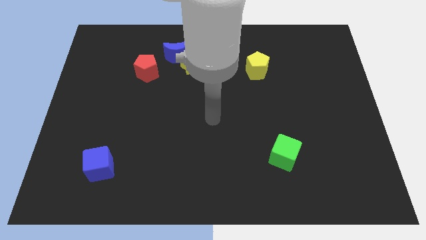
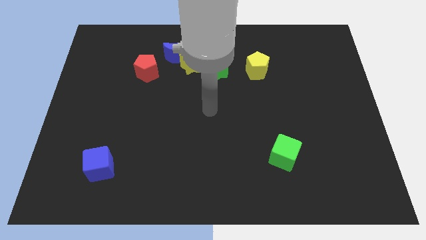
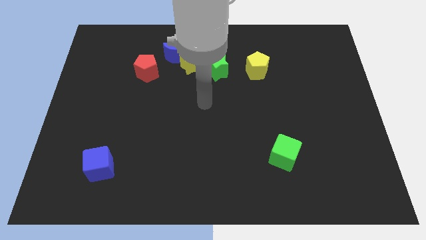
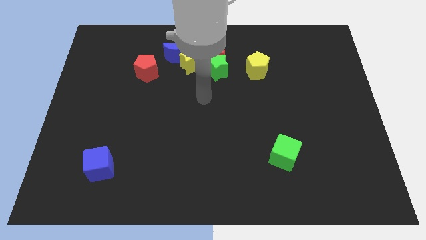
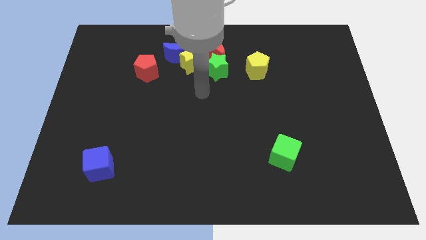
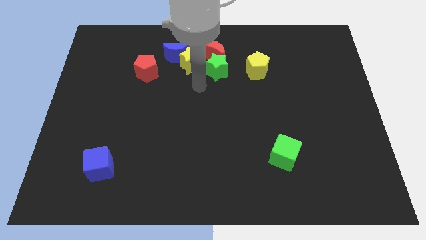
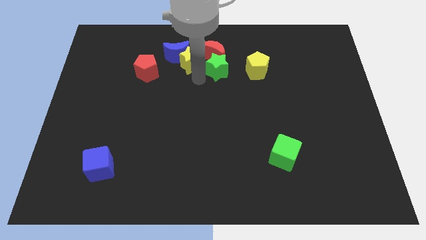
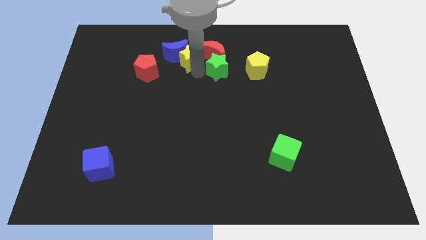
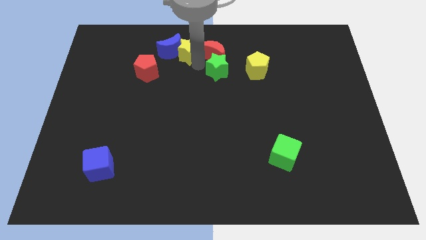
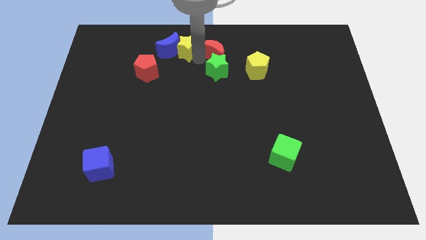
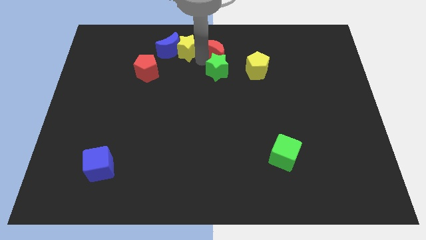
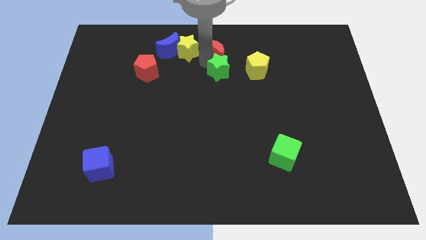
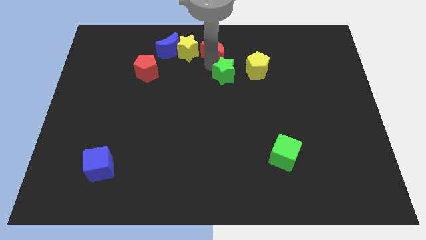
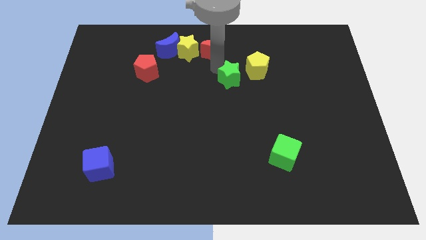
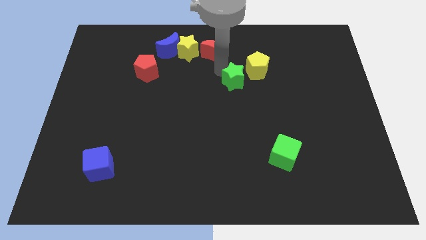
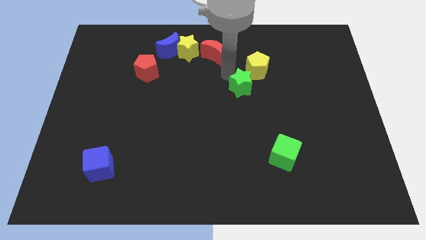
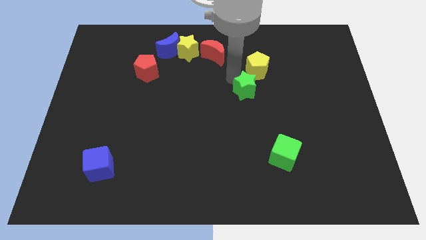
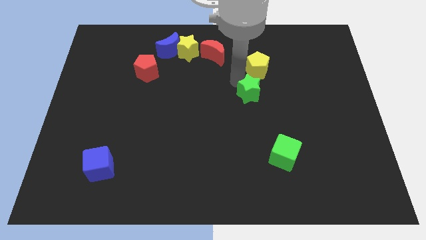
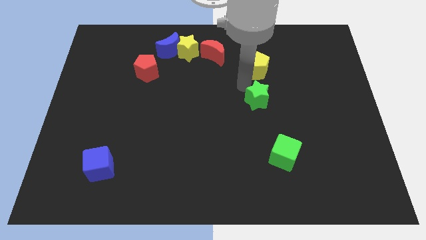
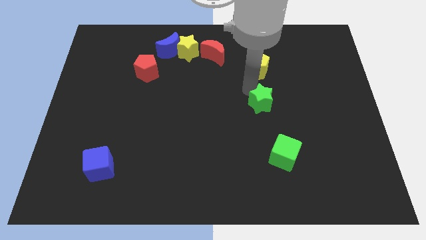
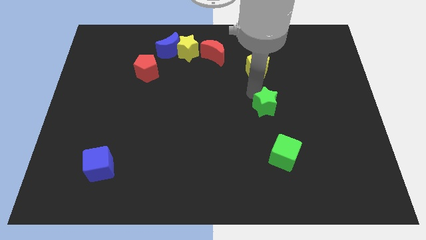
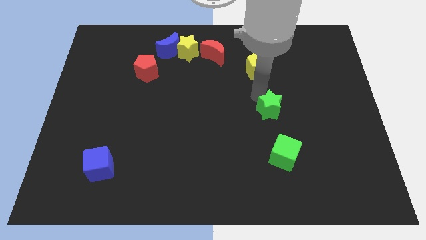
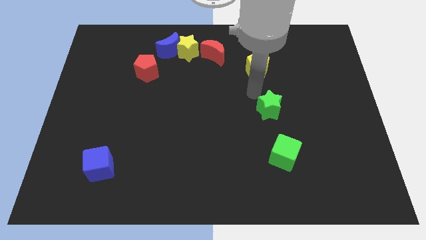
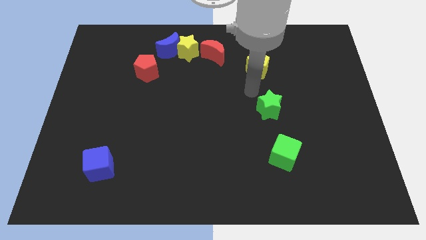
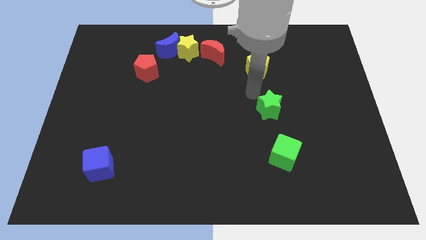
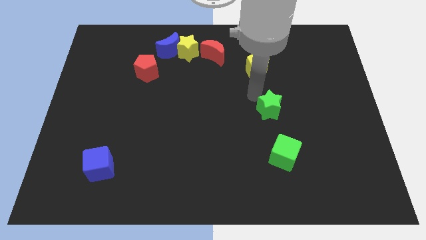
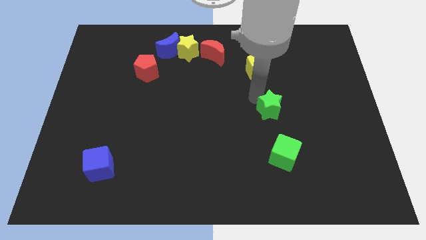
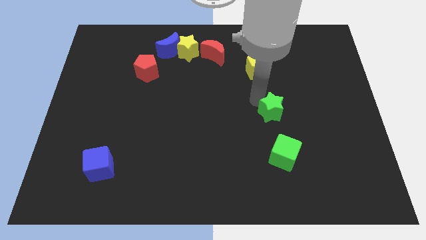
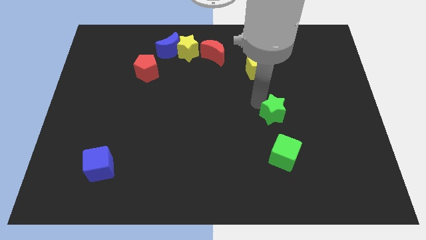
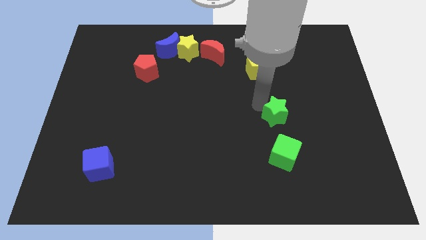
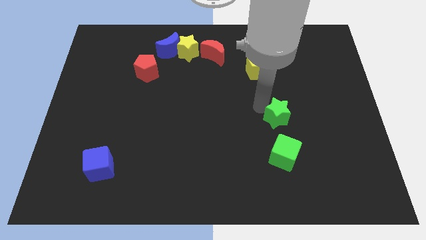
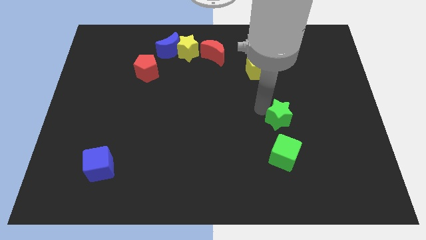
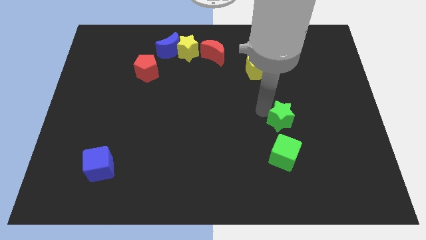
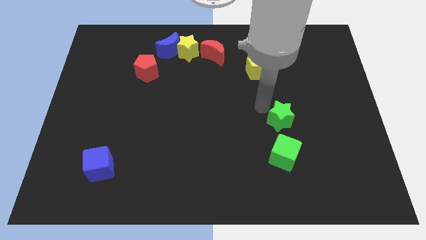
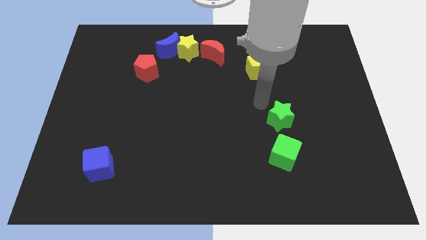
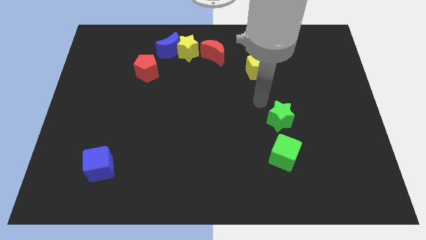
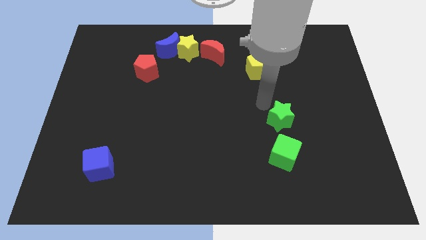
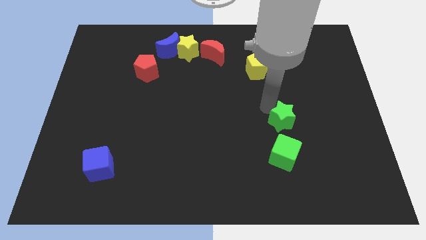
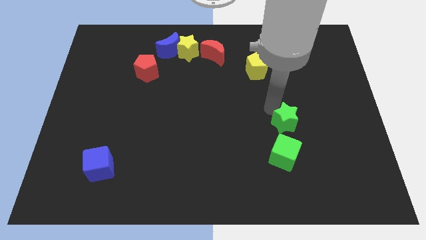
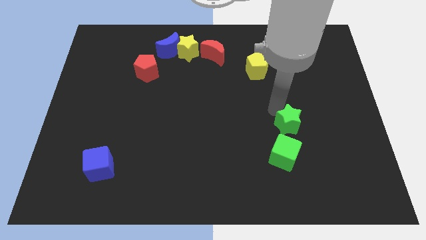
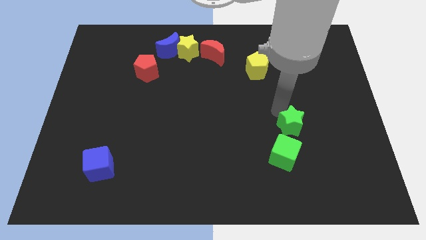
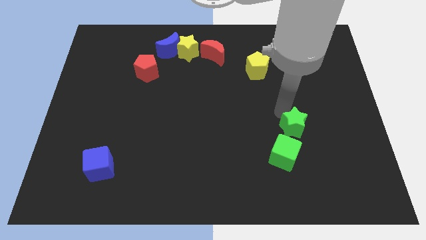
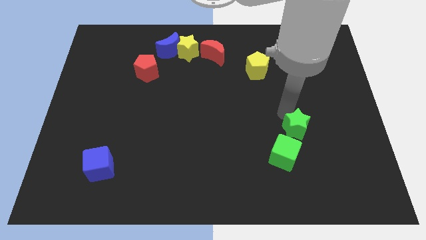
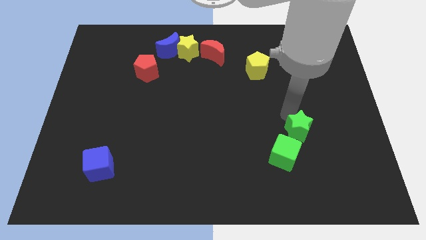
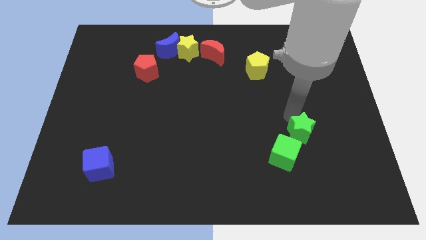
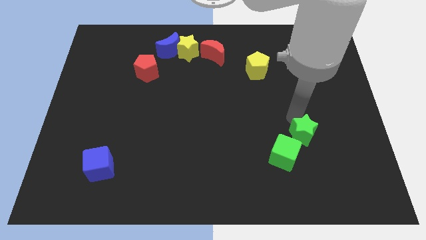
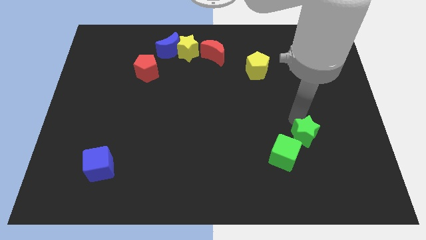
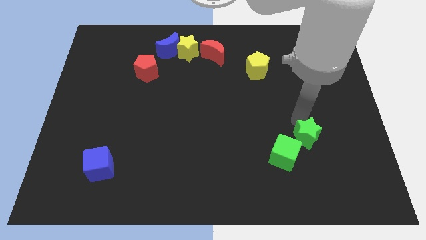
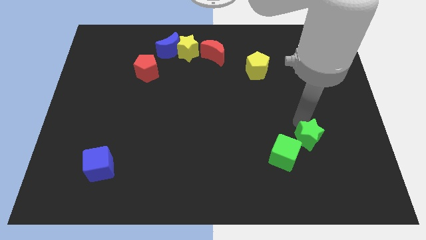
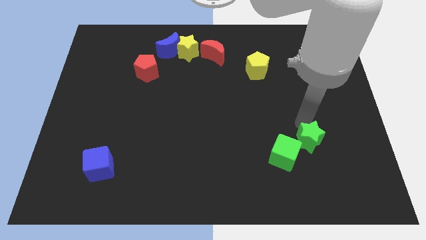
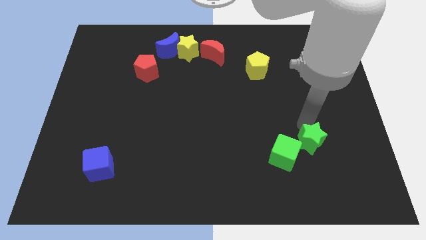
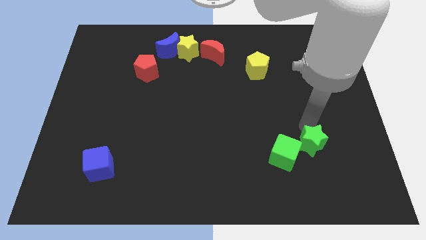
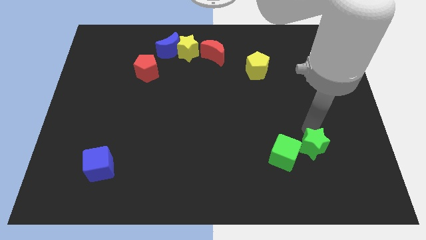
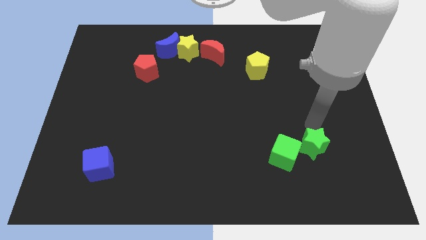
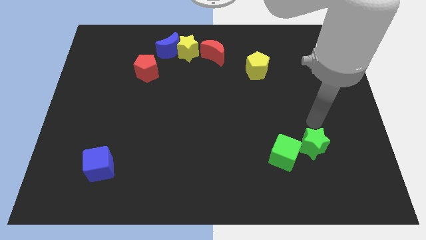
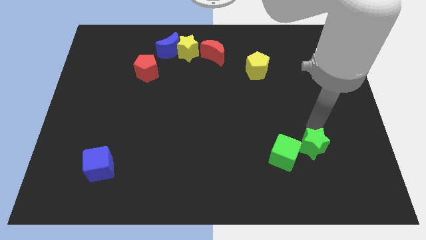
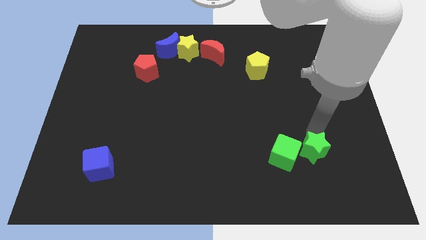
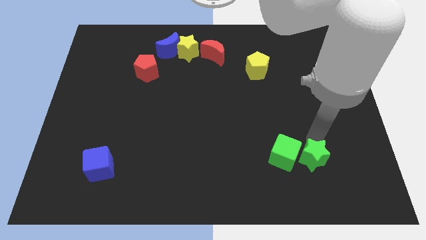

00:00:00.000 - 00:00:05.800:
move the green star diagonally down and to the right of the green cube

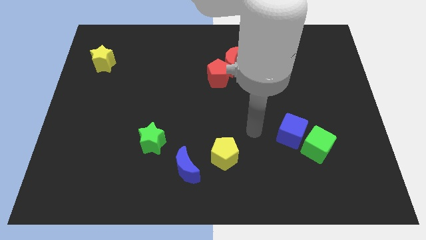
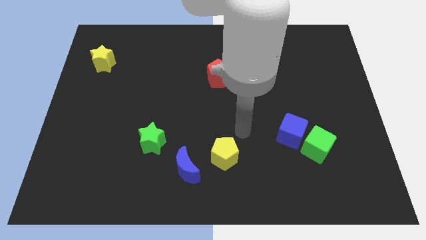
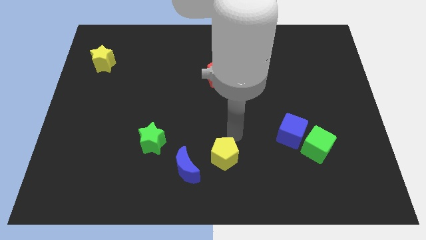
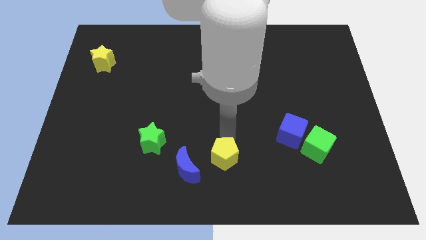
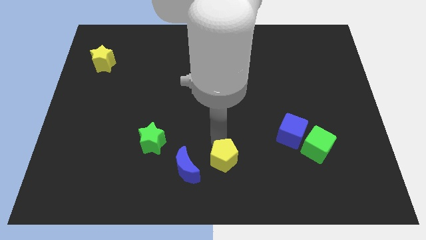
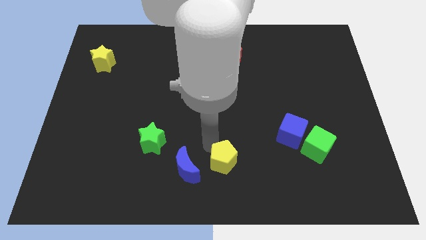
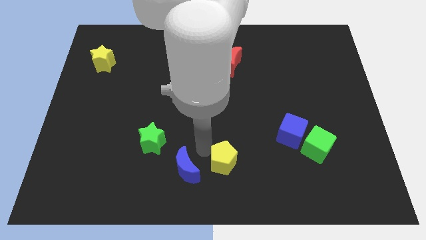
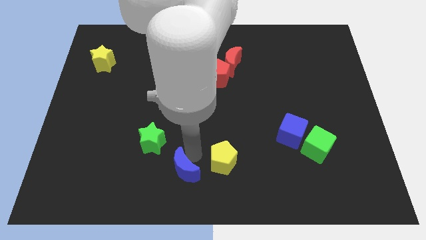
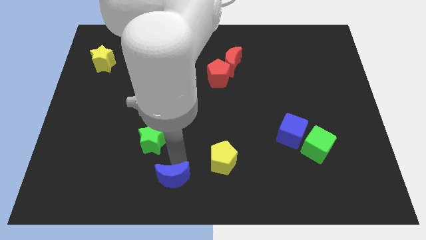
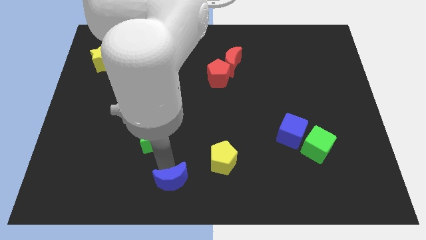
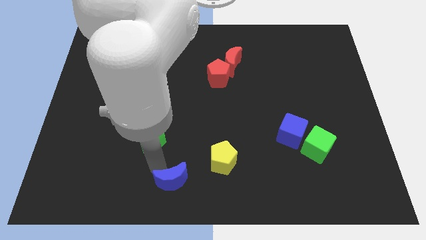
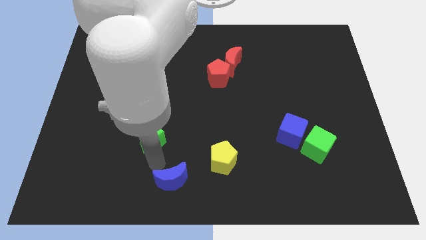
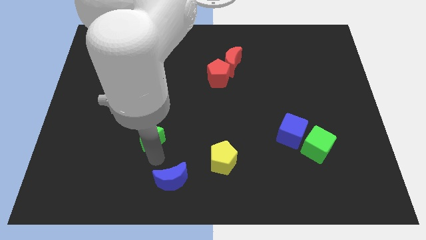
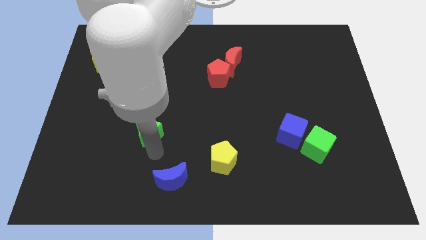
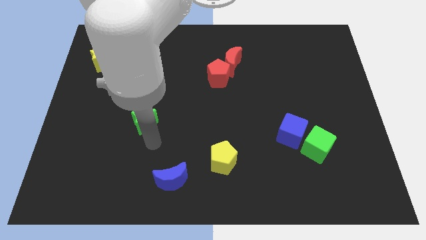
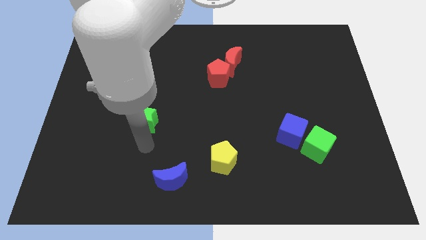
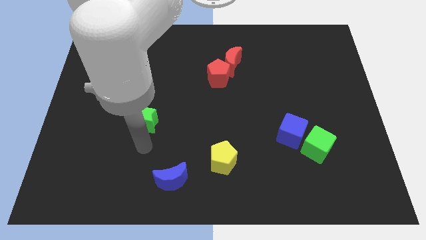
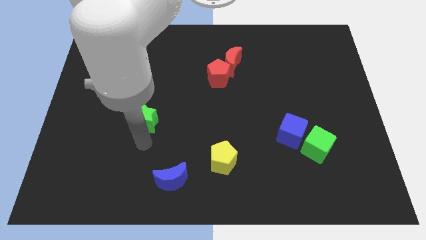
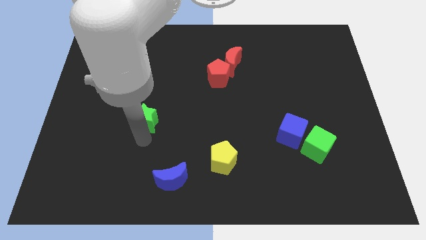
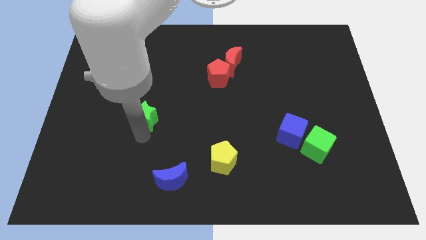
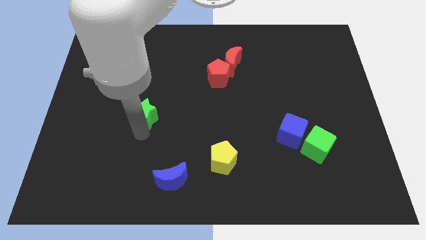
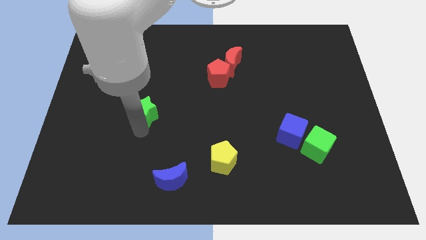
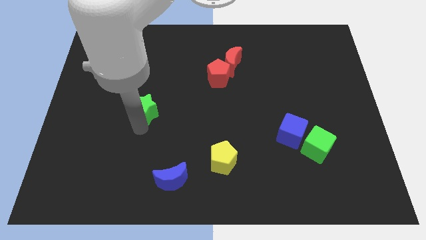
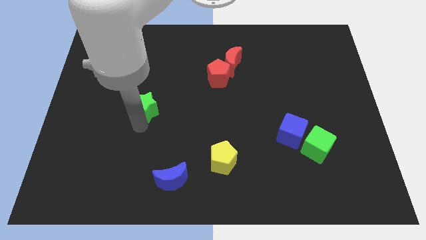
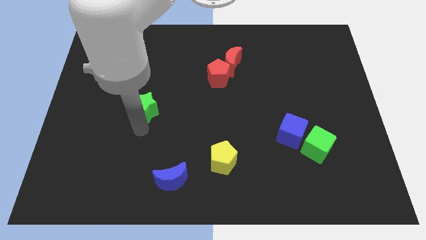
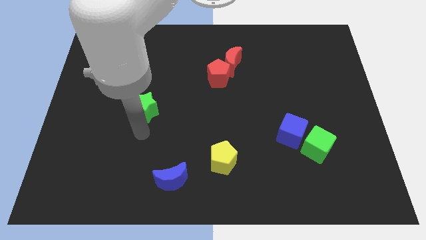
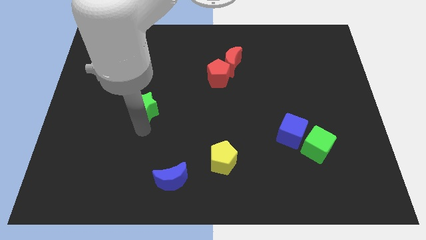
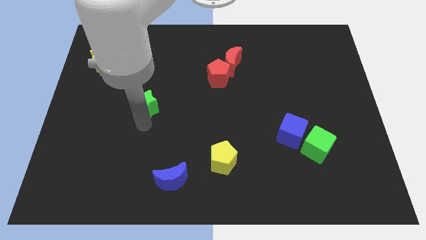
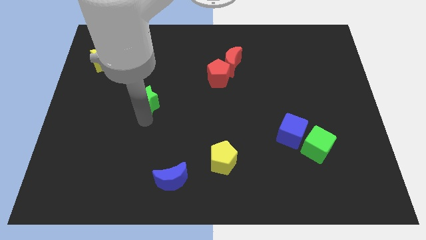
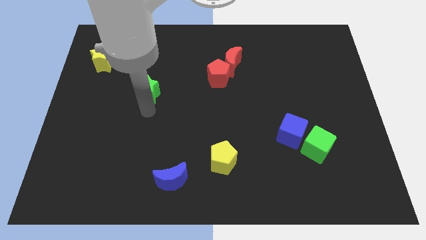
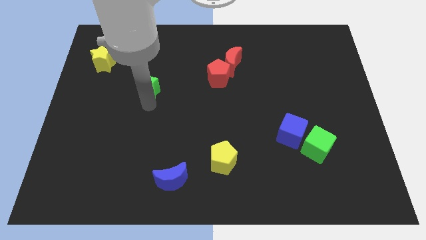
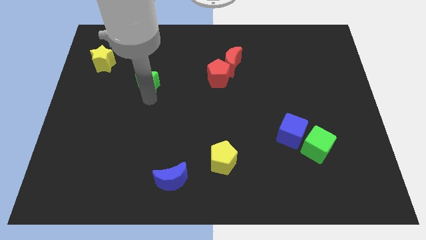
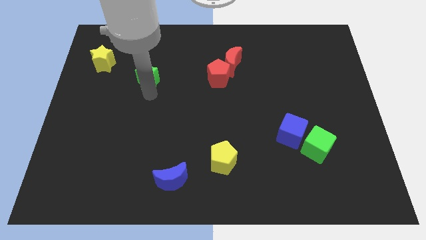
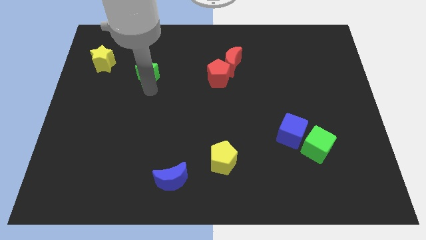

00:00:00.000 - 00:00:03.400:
put the green star to the right side of the yellow star
